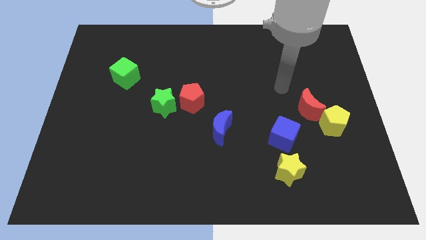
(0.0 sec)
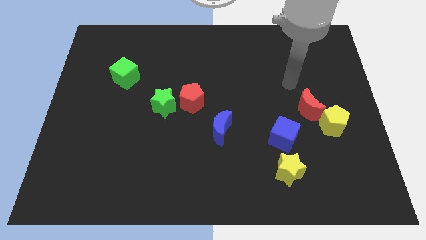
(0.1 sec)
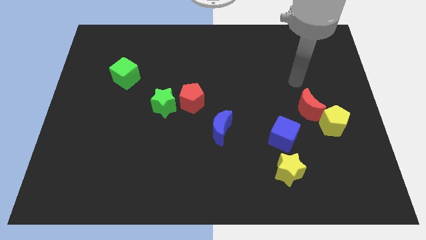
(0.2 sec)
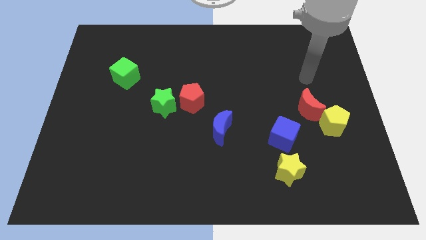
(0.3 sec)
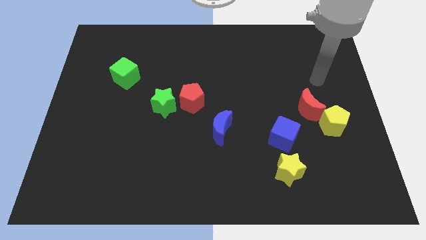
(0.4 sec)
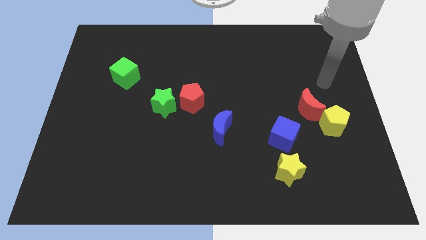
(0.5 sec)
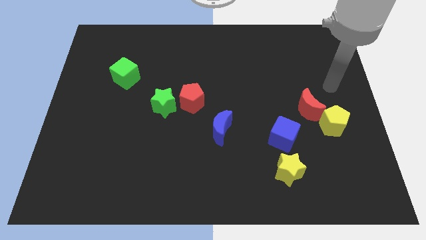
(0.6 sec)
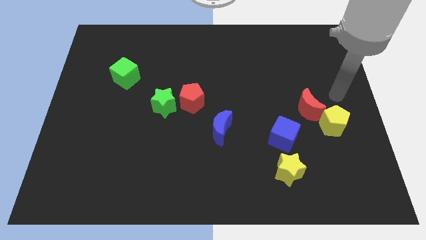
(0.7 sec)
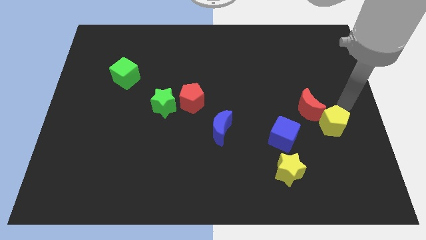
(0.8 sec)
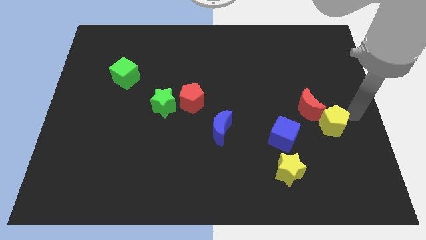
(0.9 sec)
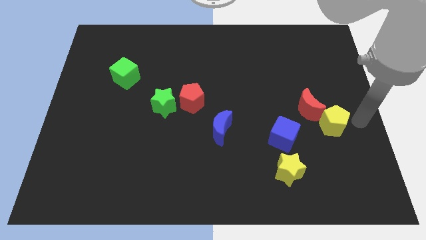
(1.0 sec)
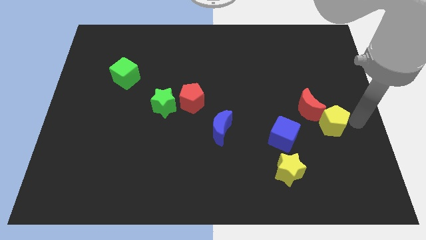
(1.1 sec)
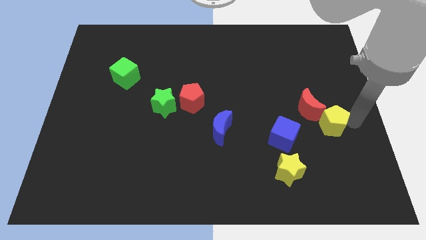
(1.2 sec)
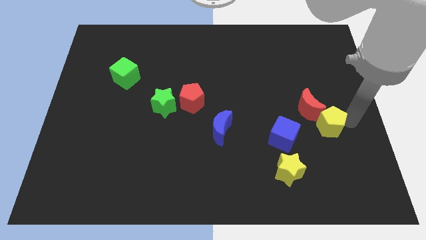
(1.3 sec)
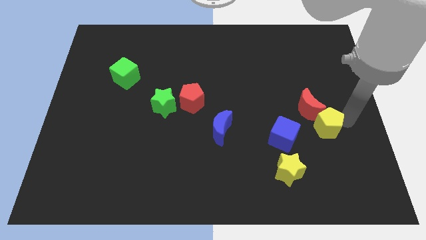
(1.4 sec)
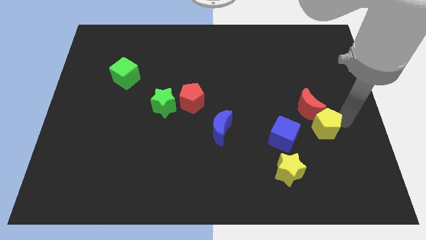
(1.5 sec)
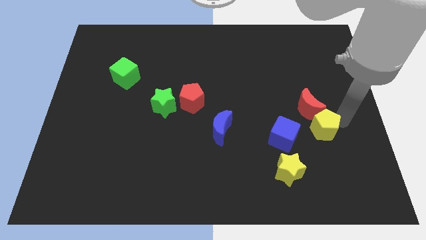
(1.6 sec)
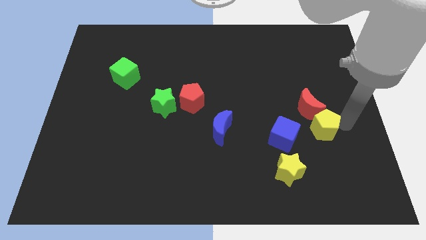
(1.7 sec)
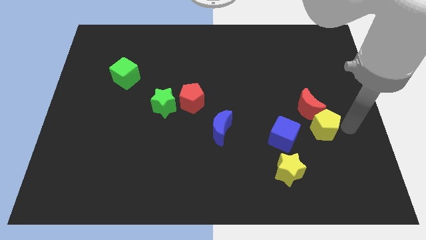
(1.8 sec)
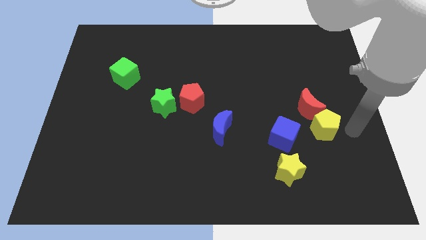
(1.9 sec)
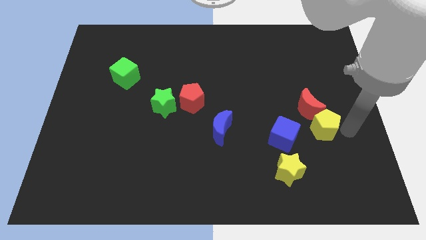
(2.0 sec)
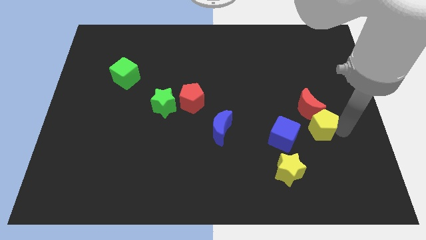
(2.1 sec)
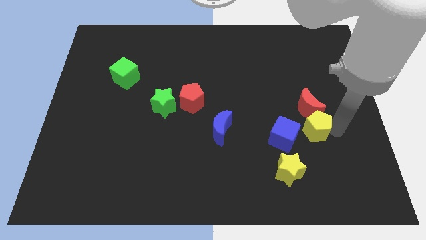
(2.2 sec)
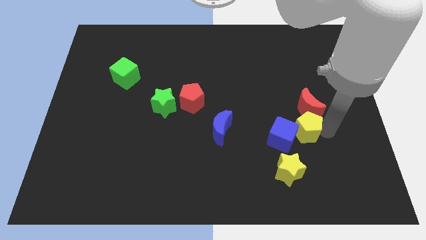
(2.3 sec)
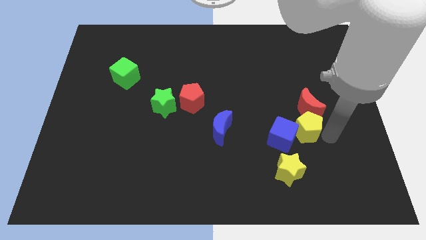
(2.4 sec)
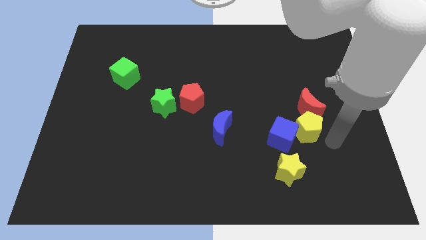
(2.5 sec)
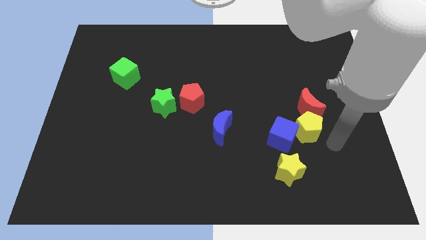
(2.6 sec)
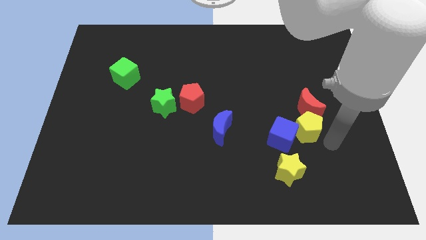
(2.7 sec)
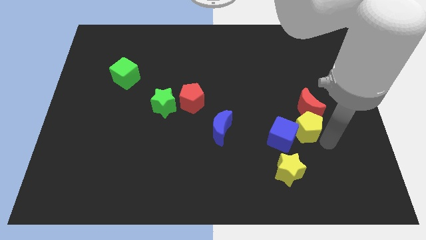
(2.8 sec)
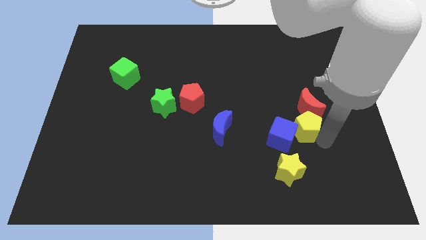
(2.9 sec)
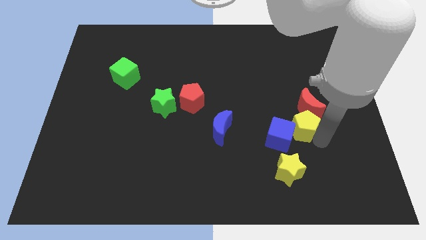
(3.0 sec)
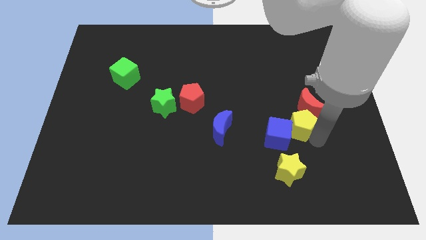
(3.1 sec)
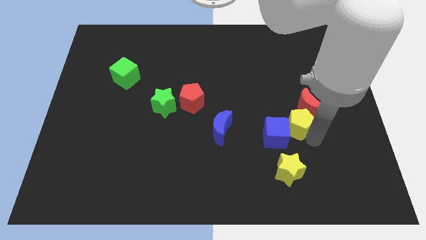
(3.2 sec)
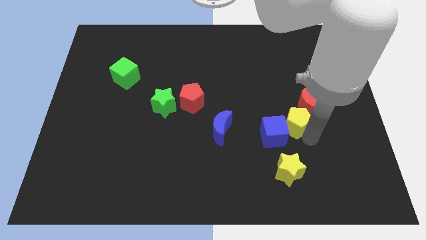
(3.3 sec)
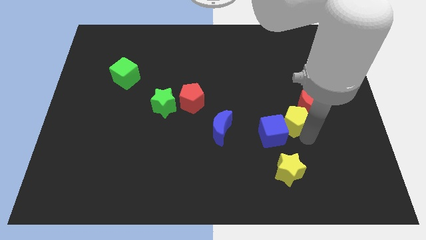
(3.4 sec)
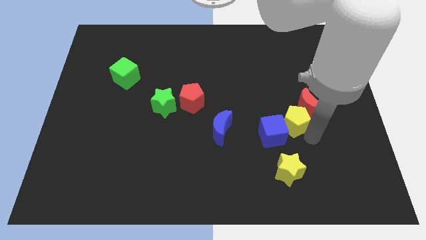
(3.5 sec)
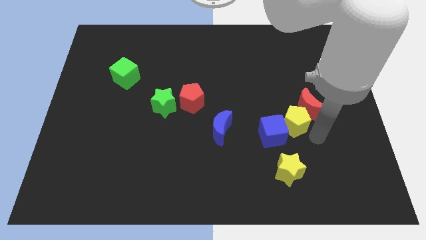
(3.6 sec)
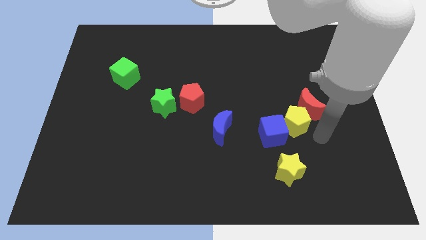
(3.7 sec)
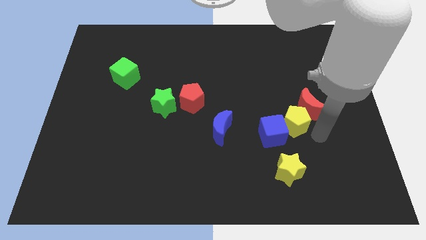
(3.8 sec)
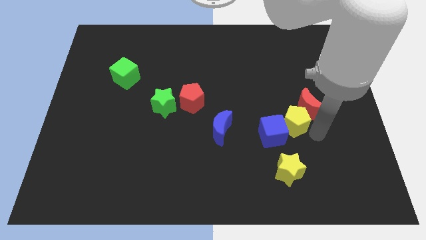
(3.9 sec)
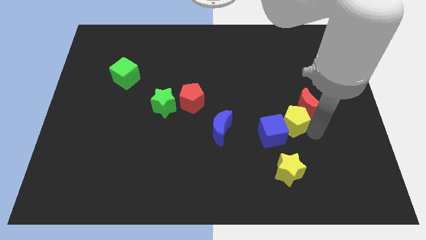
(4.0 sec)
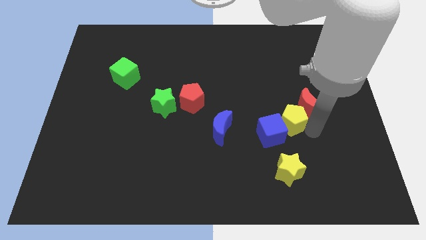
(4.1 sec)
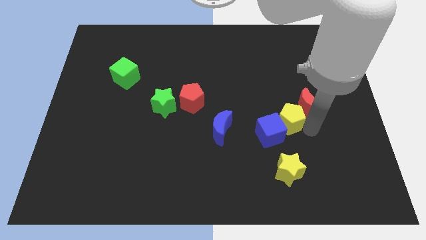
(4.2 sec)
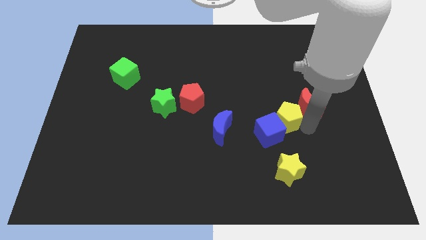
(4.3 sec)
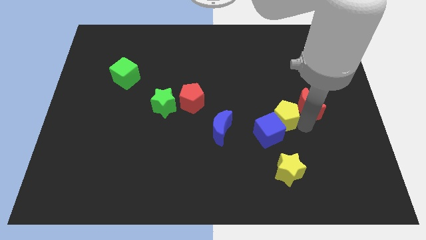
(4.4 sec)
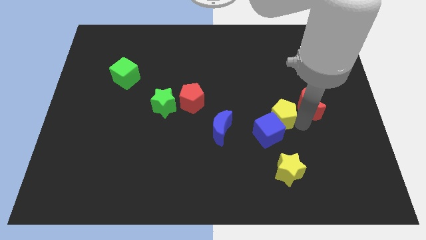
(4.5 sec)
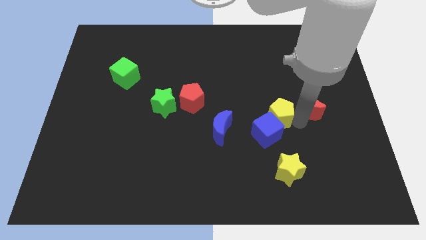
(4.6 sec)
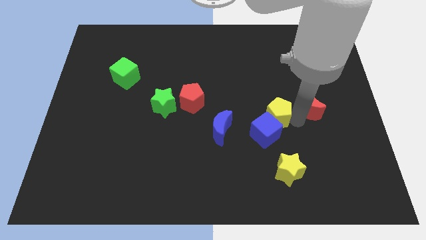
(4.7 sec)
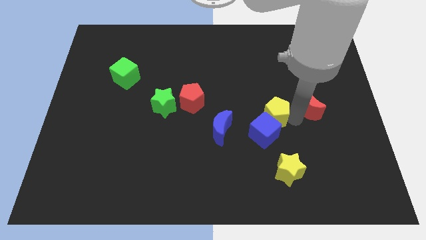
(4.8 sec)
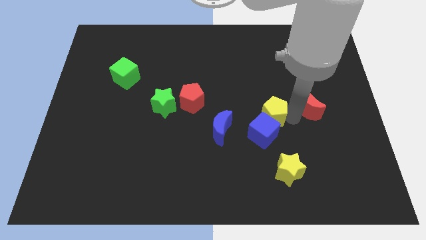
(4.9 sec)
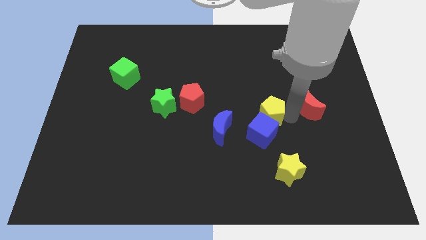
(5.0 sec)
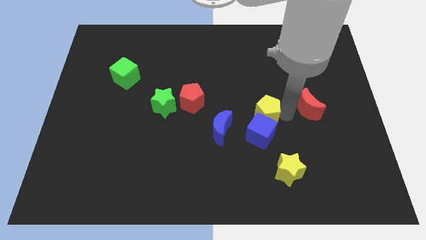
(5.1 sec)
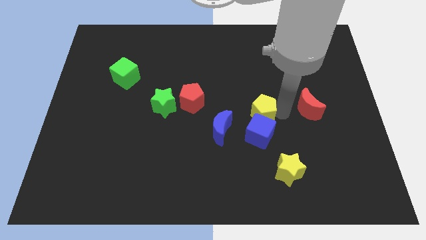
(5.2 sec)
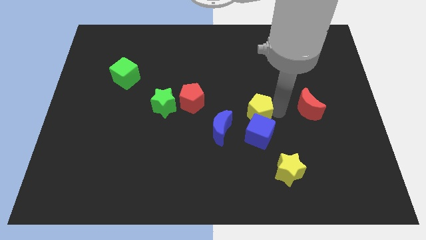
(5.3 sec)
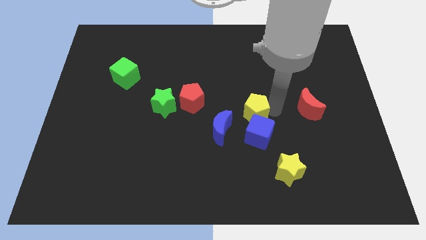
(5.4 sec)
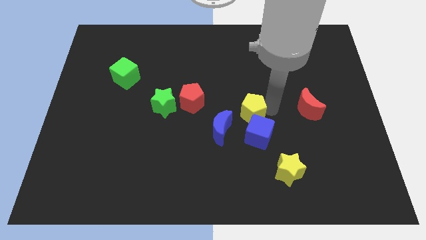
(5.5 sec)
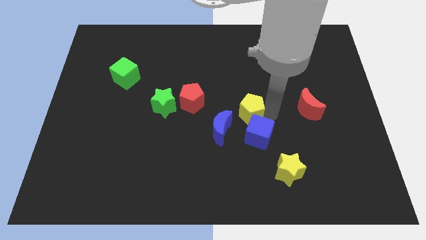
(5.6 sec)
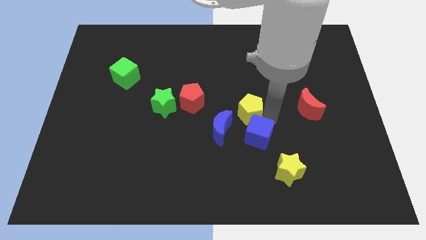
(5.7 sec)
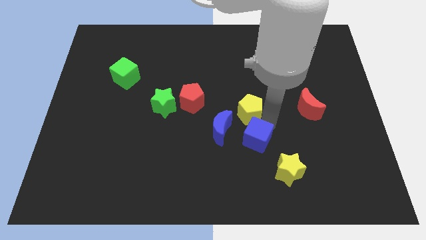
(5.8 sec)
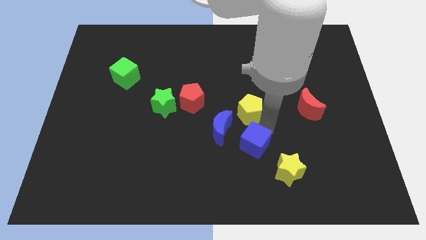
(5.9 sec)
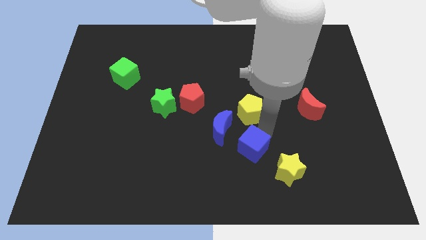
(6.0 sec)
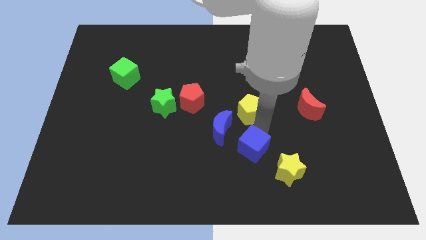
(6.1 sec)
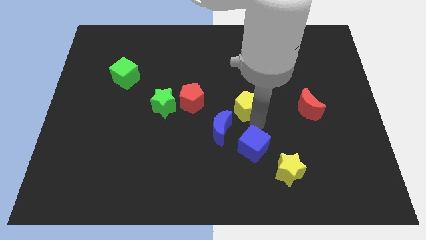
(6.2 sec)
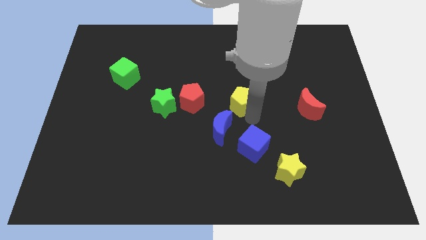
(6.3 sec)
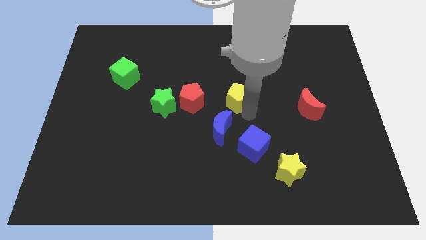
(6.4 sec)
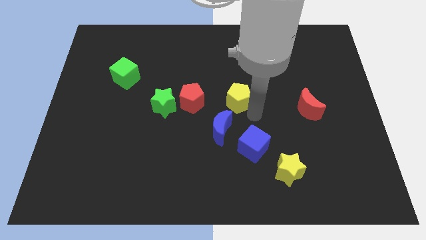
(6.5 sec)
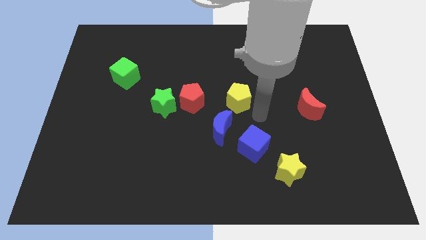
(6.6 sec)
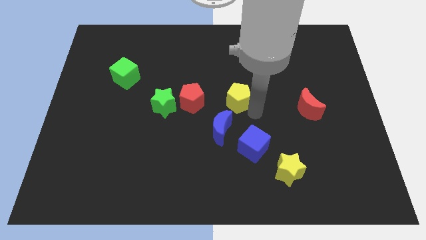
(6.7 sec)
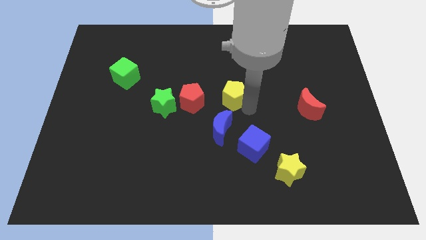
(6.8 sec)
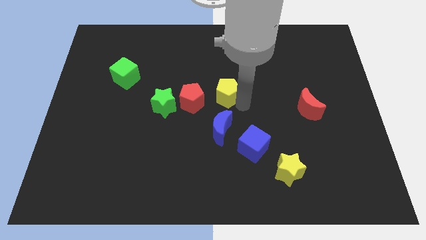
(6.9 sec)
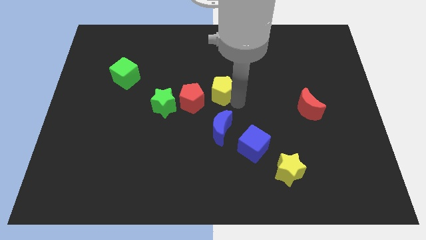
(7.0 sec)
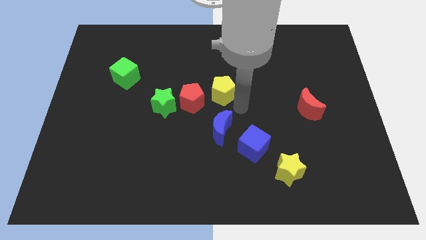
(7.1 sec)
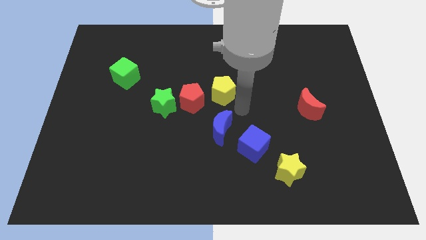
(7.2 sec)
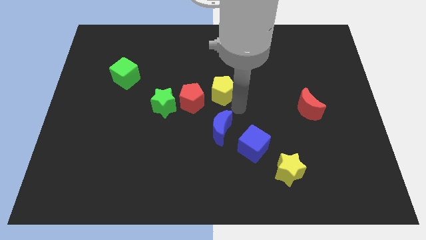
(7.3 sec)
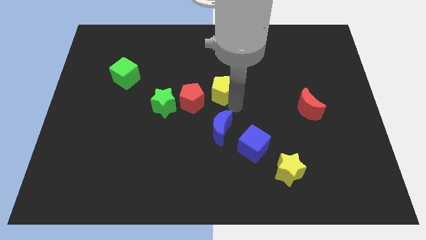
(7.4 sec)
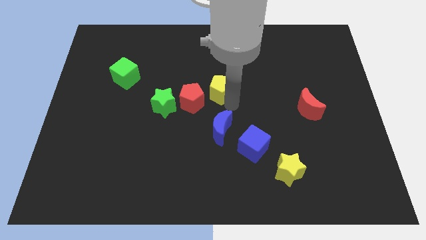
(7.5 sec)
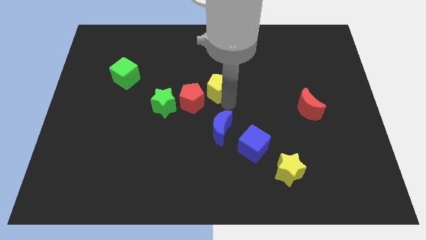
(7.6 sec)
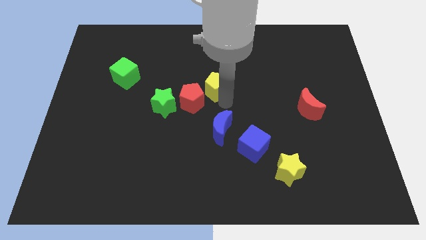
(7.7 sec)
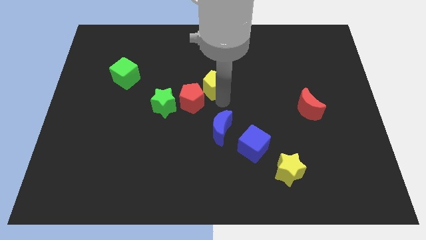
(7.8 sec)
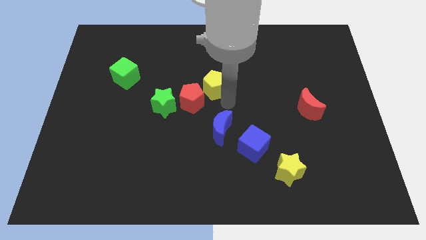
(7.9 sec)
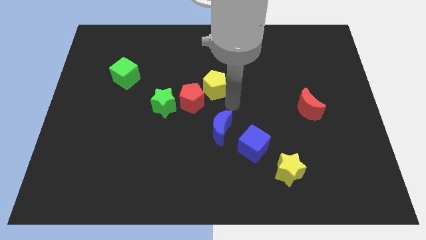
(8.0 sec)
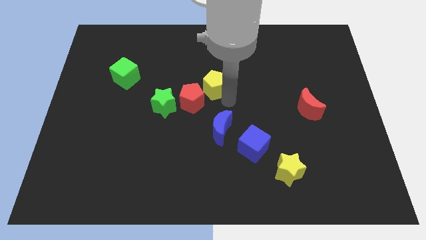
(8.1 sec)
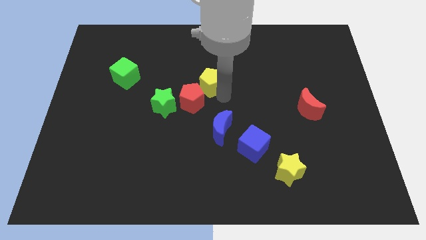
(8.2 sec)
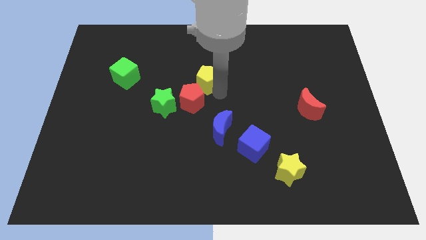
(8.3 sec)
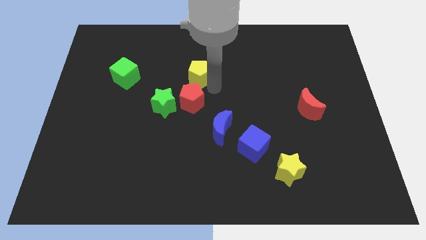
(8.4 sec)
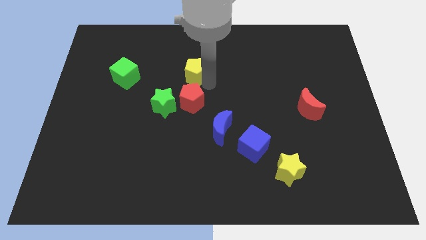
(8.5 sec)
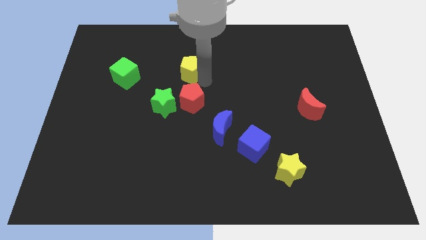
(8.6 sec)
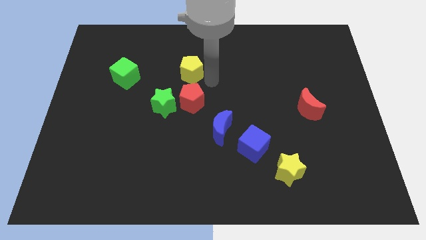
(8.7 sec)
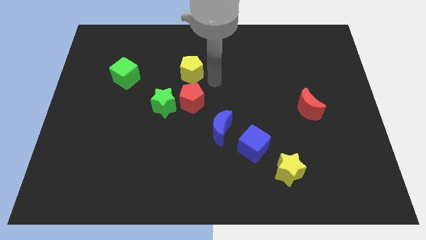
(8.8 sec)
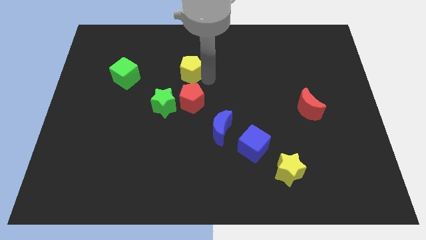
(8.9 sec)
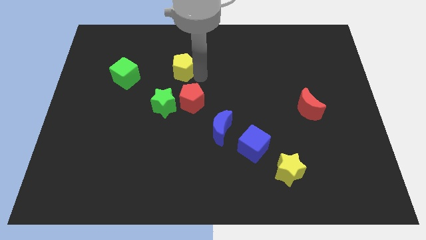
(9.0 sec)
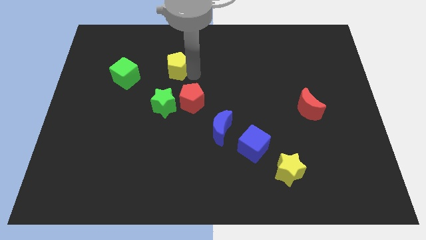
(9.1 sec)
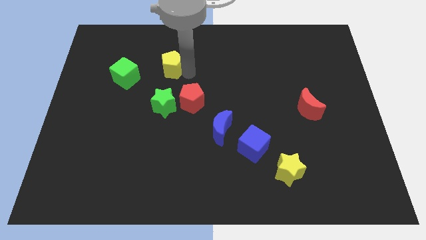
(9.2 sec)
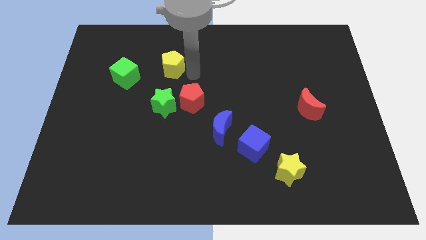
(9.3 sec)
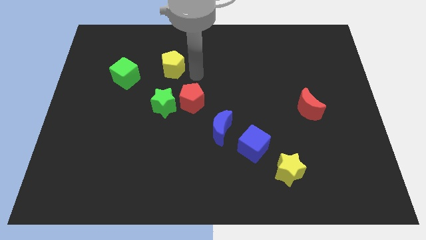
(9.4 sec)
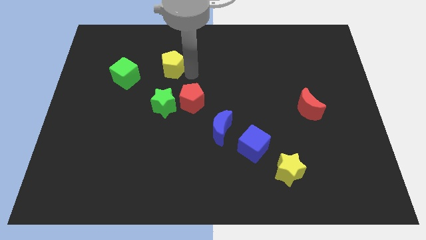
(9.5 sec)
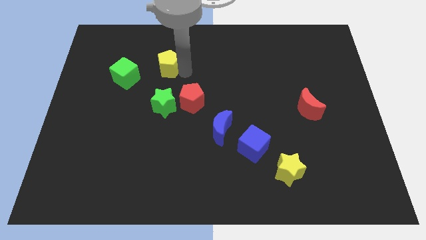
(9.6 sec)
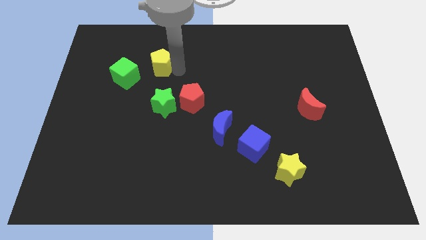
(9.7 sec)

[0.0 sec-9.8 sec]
move the yellow pentagon to the top right side of the green cube
